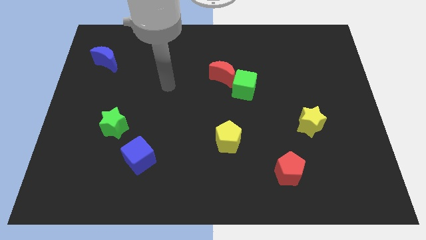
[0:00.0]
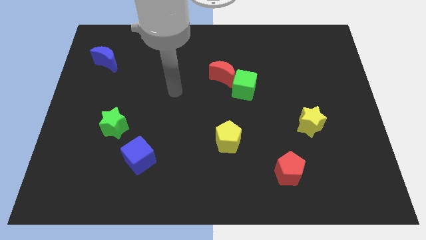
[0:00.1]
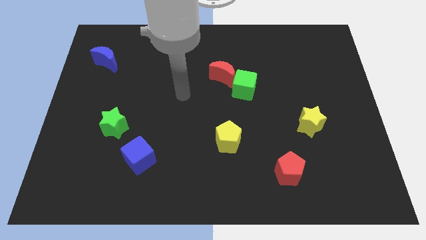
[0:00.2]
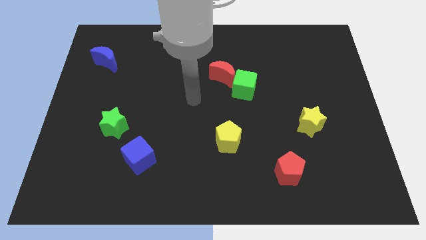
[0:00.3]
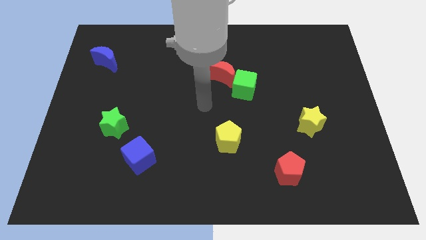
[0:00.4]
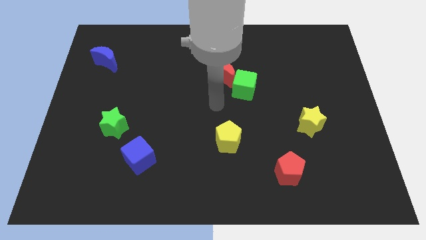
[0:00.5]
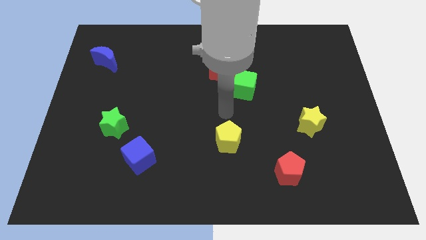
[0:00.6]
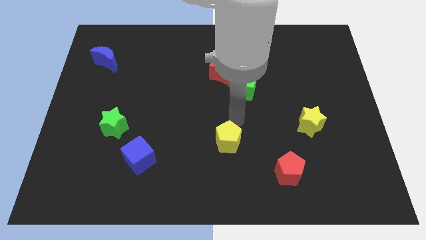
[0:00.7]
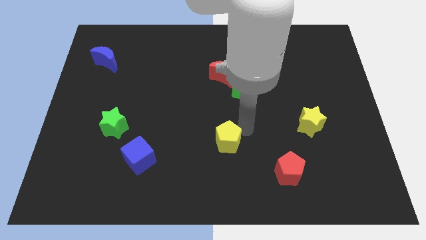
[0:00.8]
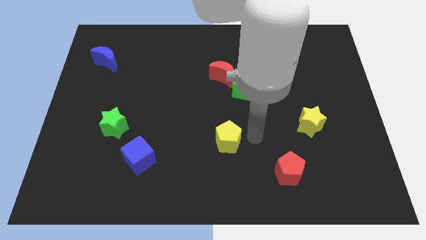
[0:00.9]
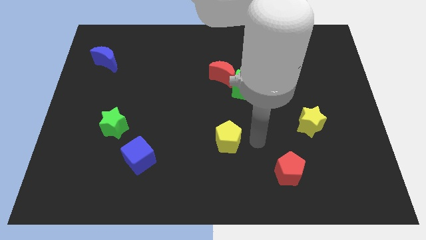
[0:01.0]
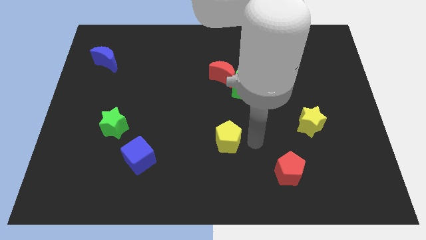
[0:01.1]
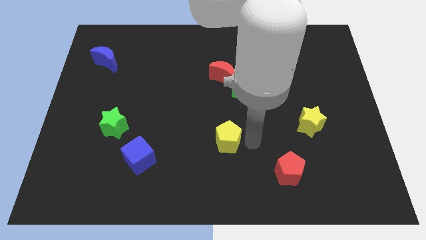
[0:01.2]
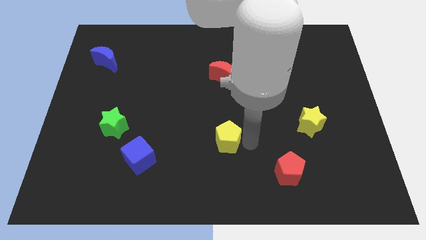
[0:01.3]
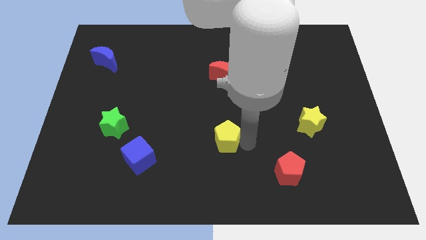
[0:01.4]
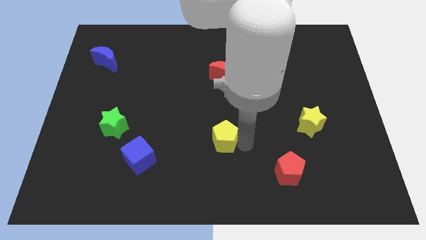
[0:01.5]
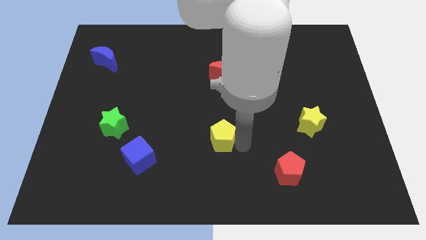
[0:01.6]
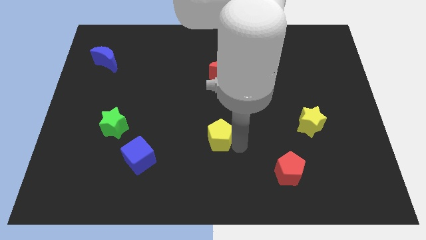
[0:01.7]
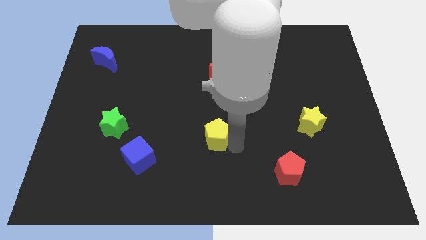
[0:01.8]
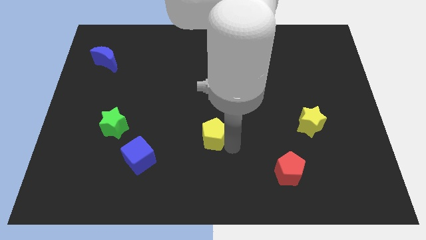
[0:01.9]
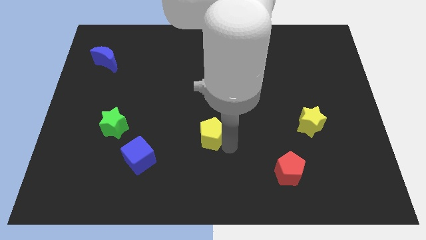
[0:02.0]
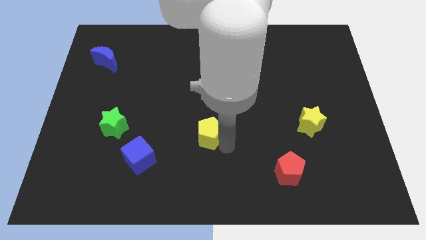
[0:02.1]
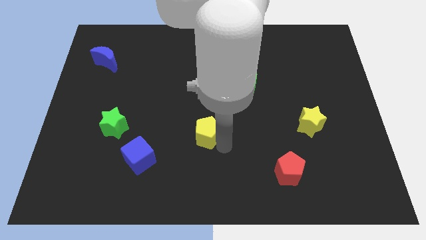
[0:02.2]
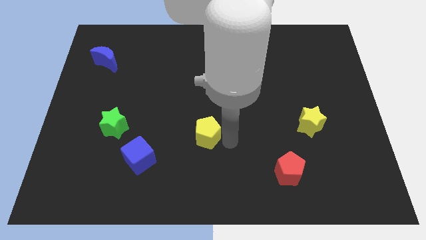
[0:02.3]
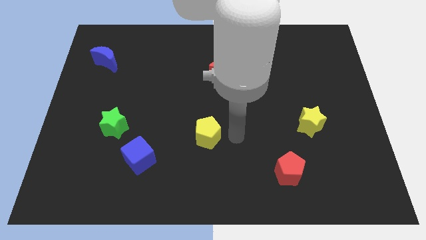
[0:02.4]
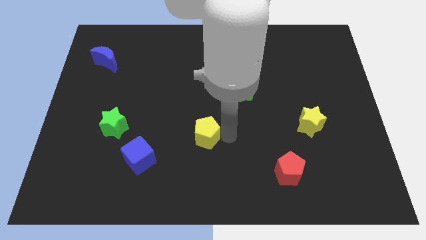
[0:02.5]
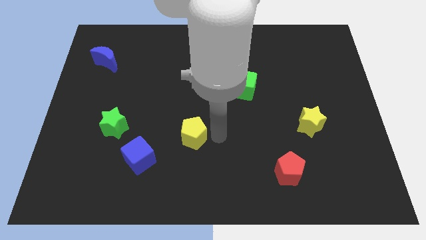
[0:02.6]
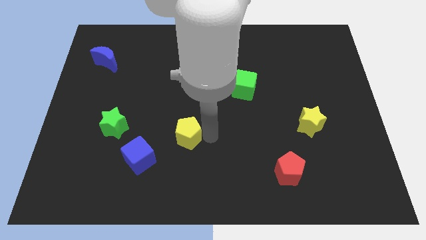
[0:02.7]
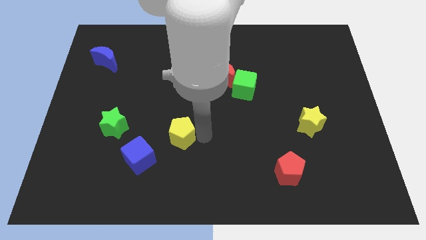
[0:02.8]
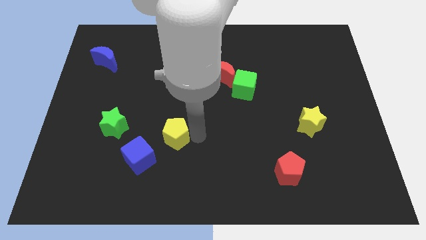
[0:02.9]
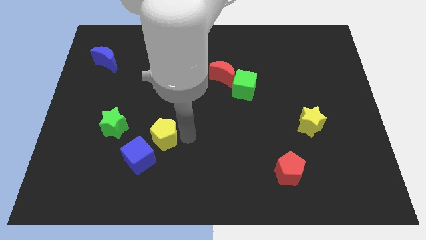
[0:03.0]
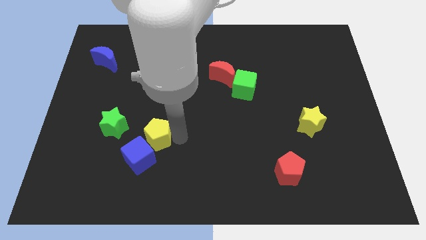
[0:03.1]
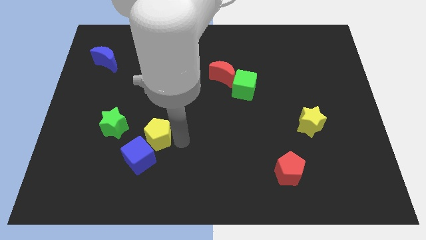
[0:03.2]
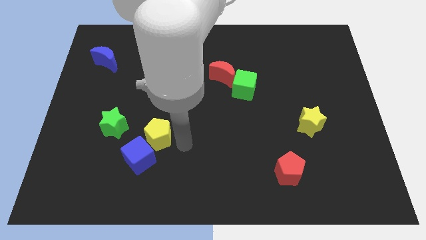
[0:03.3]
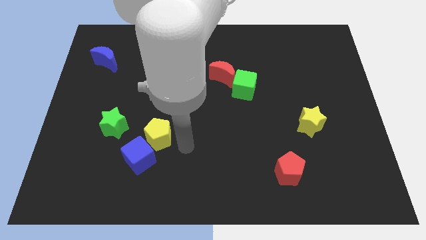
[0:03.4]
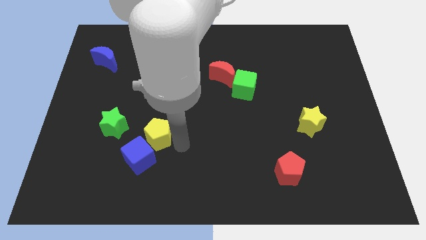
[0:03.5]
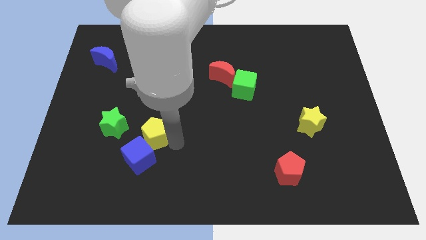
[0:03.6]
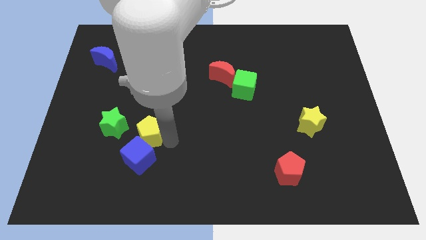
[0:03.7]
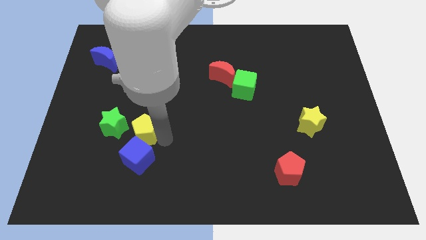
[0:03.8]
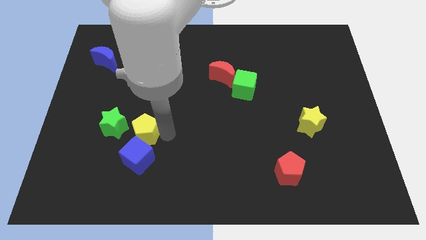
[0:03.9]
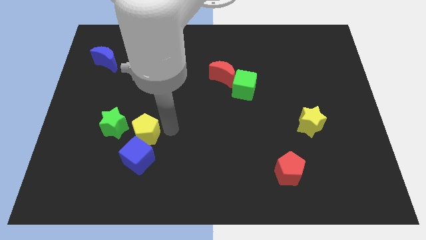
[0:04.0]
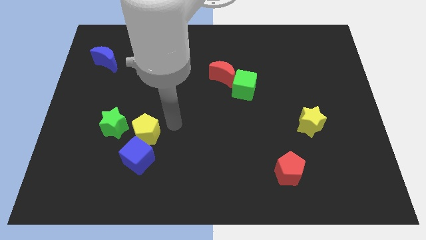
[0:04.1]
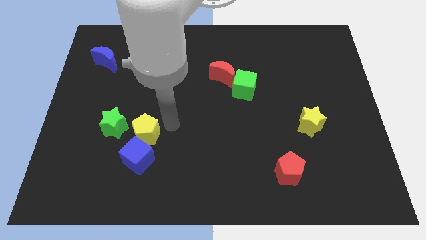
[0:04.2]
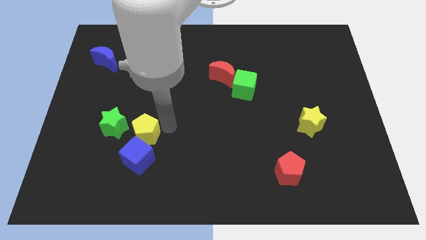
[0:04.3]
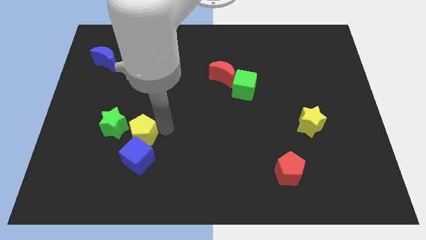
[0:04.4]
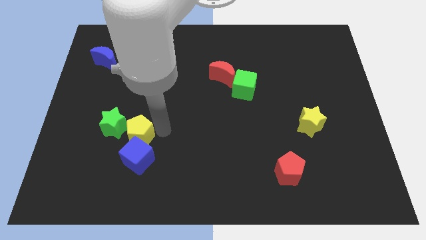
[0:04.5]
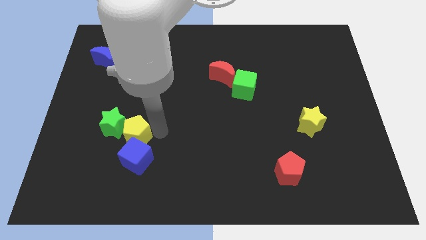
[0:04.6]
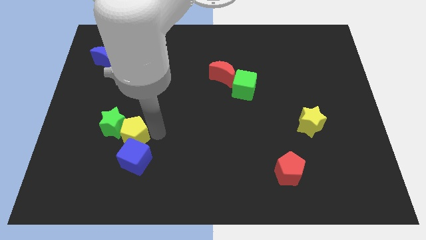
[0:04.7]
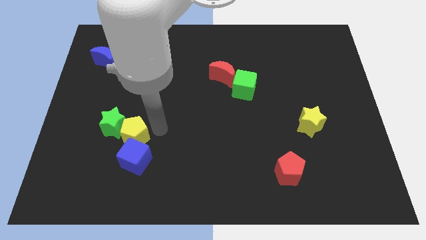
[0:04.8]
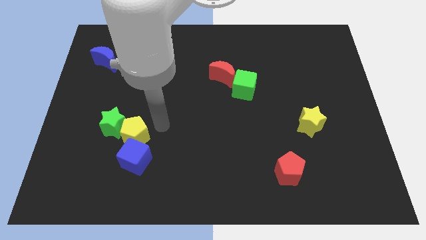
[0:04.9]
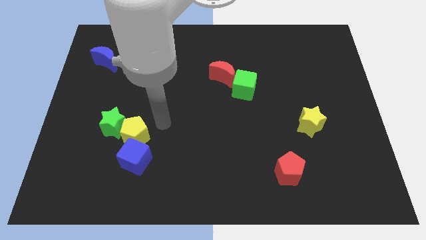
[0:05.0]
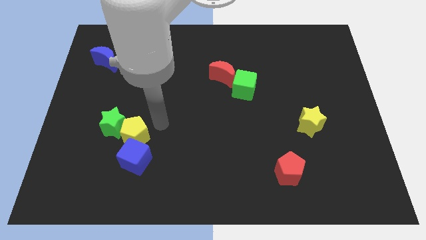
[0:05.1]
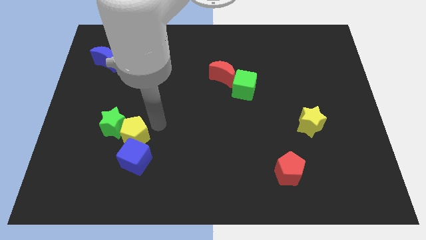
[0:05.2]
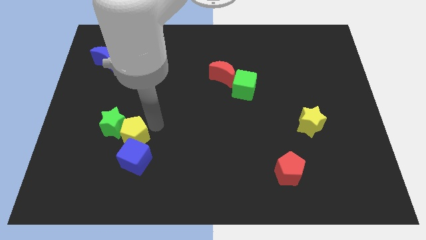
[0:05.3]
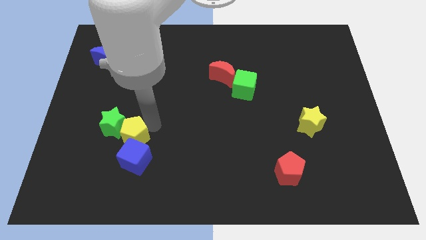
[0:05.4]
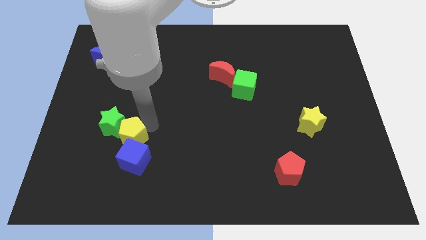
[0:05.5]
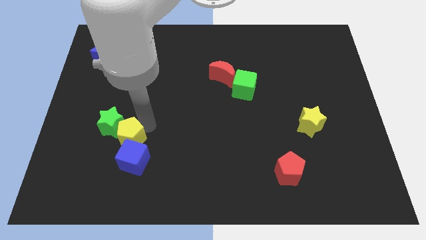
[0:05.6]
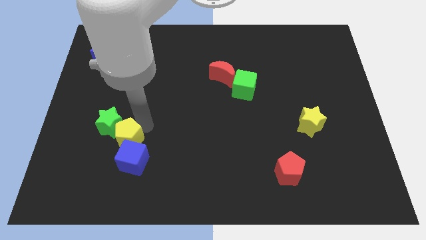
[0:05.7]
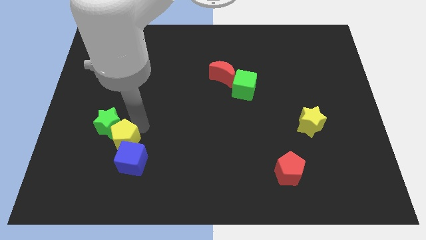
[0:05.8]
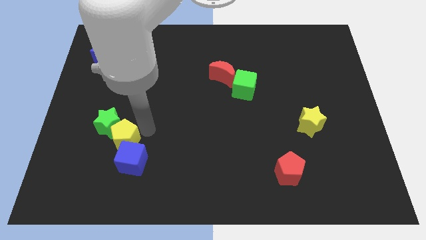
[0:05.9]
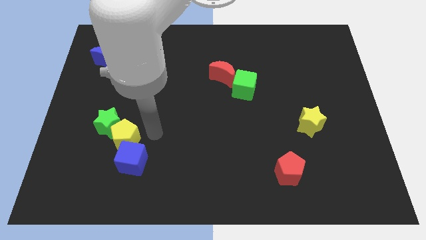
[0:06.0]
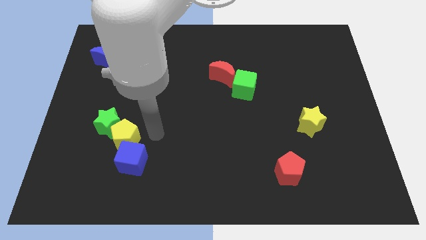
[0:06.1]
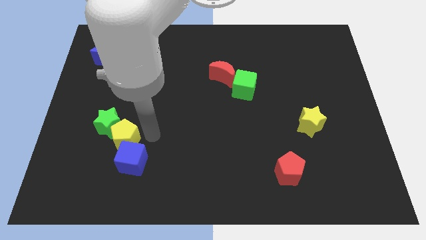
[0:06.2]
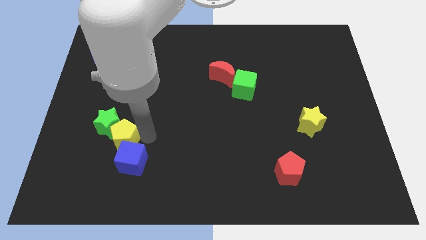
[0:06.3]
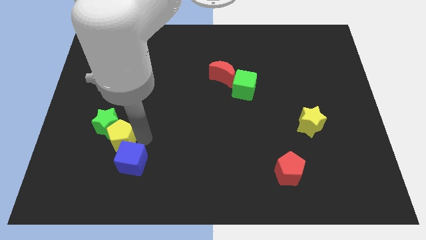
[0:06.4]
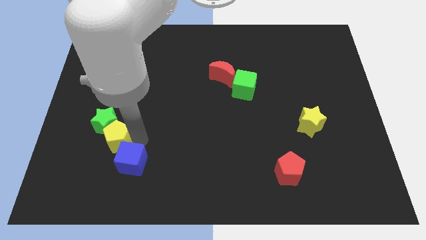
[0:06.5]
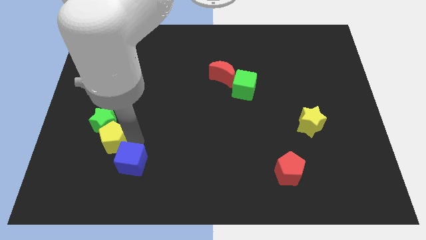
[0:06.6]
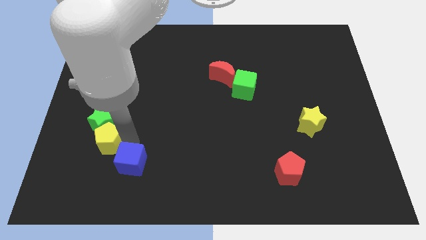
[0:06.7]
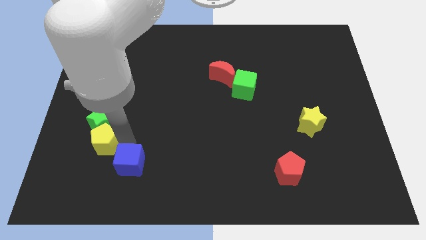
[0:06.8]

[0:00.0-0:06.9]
put the yellow pentagon diagonally down and to the left of the green star
